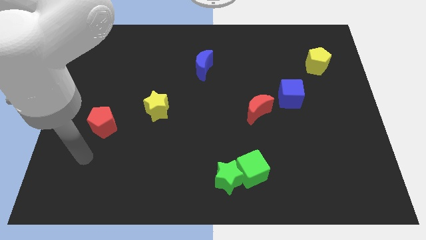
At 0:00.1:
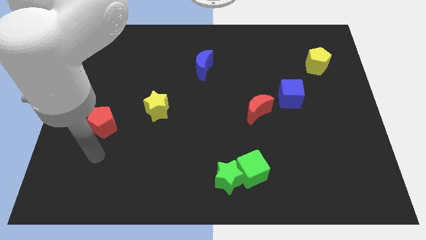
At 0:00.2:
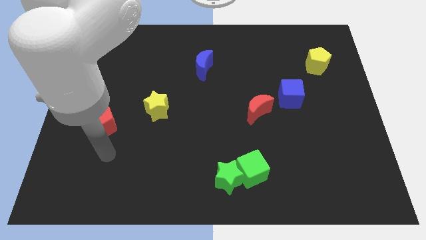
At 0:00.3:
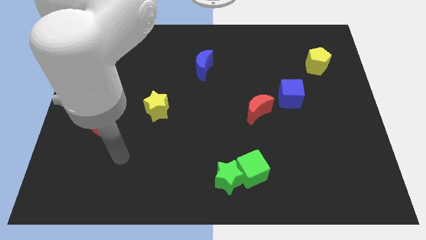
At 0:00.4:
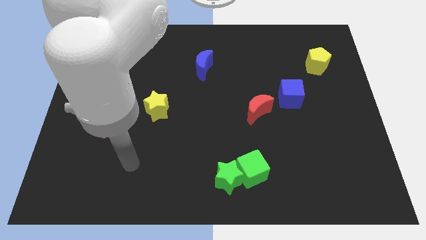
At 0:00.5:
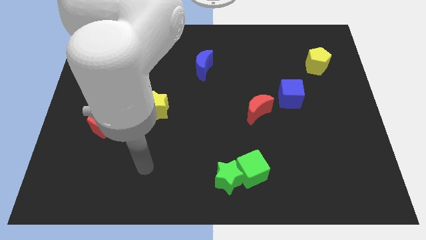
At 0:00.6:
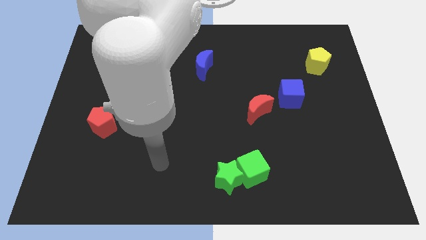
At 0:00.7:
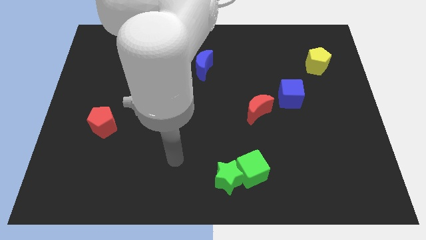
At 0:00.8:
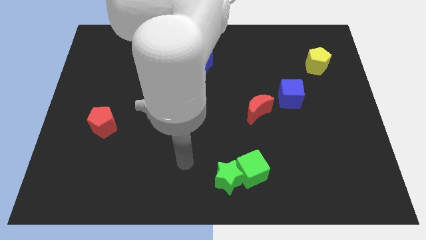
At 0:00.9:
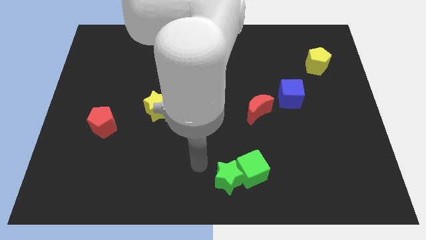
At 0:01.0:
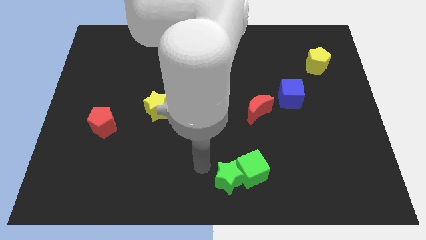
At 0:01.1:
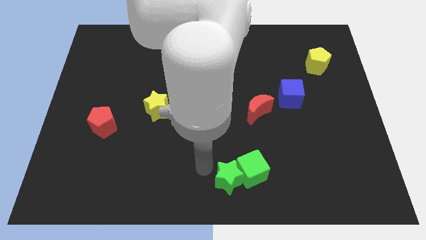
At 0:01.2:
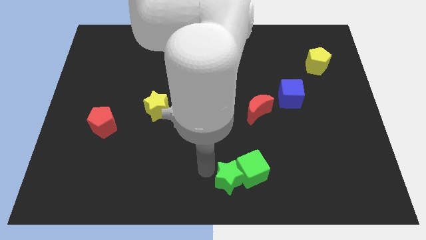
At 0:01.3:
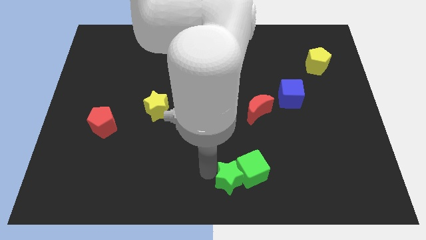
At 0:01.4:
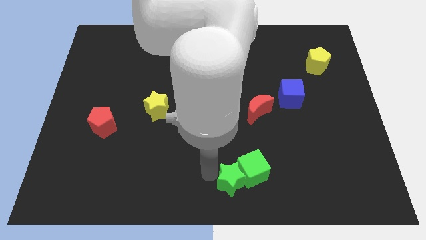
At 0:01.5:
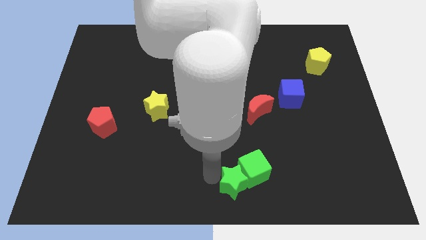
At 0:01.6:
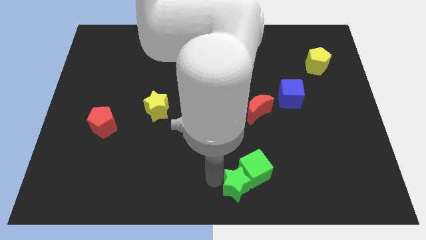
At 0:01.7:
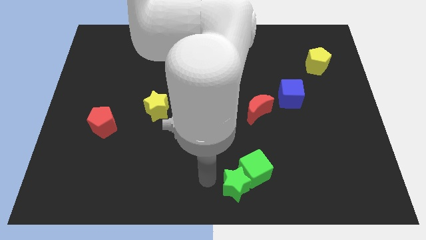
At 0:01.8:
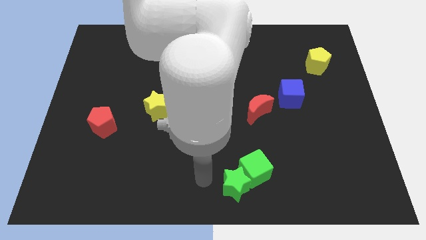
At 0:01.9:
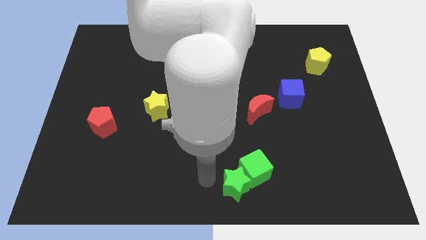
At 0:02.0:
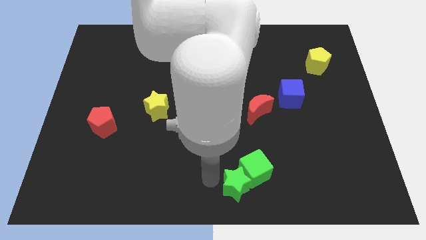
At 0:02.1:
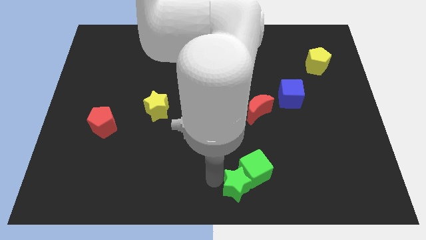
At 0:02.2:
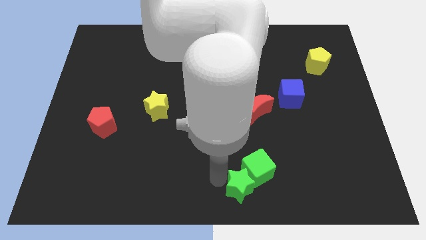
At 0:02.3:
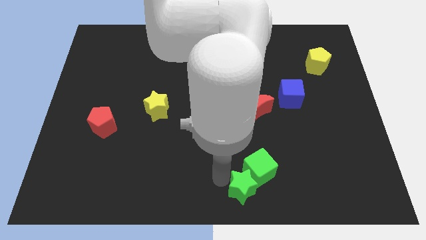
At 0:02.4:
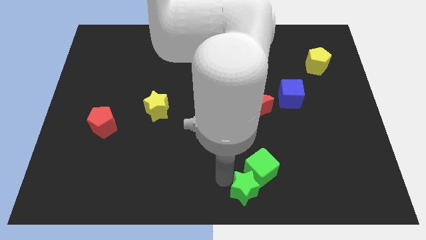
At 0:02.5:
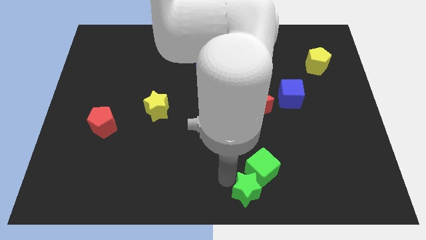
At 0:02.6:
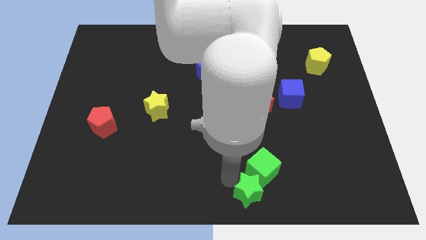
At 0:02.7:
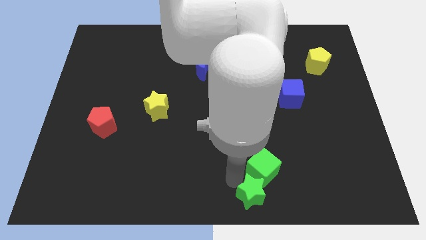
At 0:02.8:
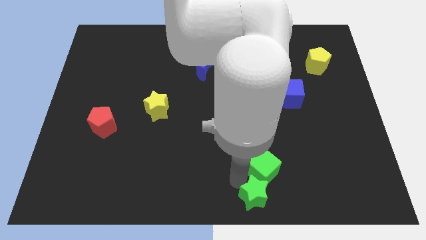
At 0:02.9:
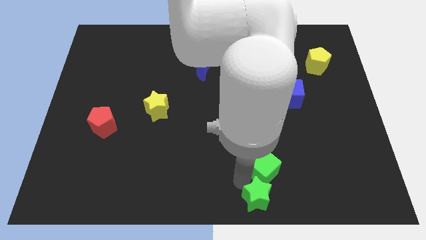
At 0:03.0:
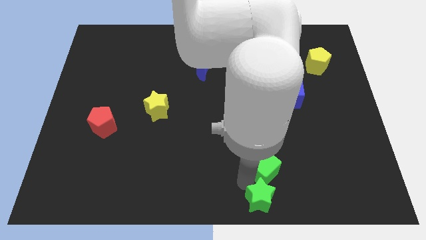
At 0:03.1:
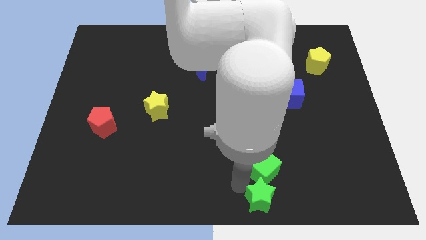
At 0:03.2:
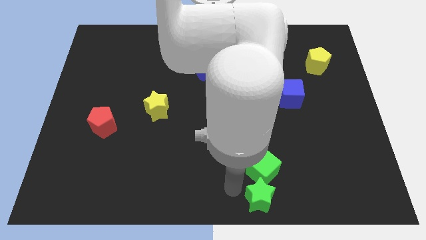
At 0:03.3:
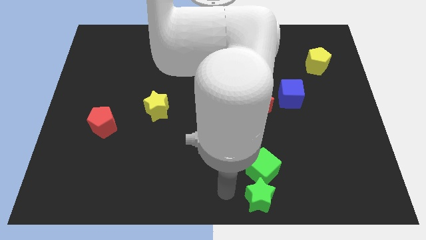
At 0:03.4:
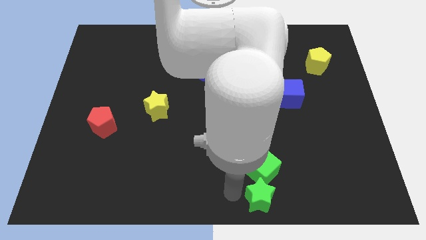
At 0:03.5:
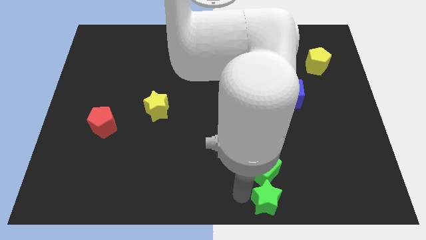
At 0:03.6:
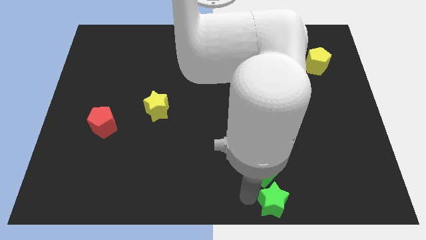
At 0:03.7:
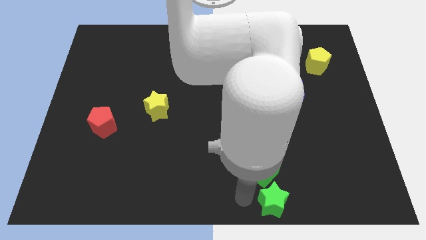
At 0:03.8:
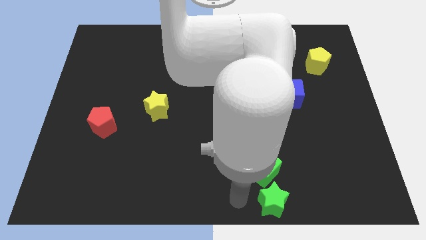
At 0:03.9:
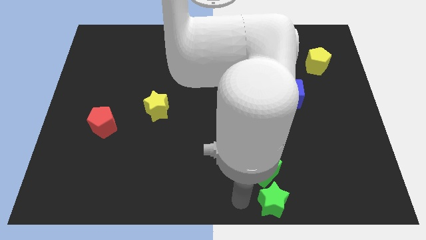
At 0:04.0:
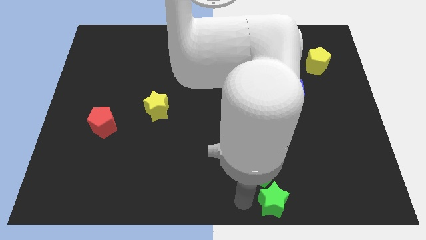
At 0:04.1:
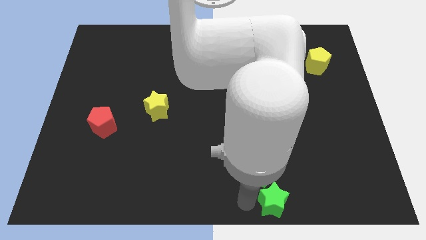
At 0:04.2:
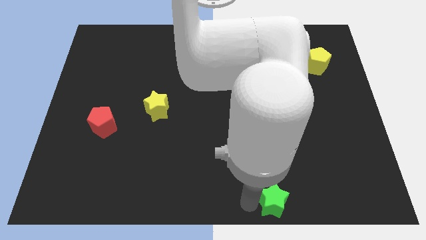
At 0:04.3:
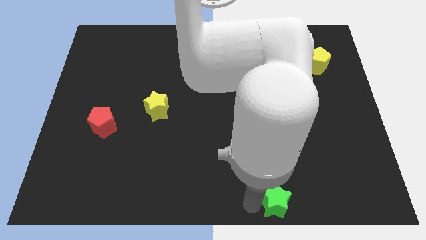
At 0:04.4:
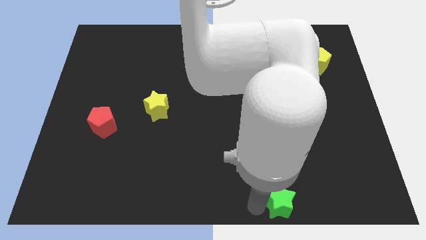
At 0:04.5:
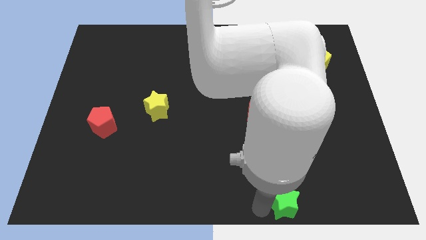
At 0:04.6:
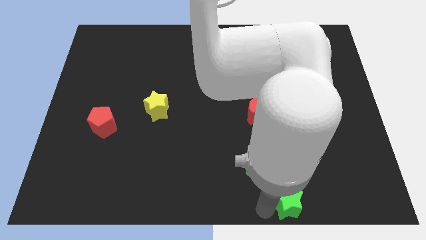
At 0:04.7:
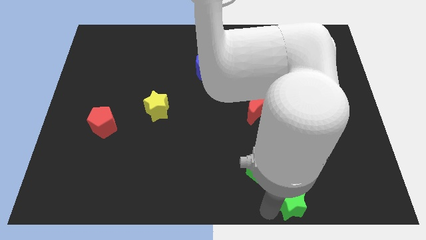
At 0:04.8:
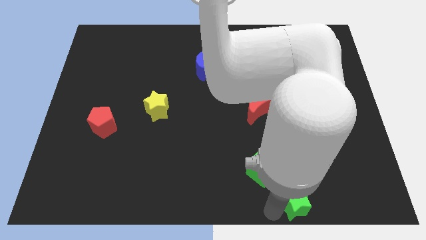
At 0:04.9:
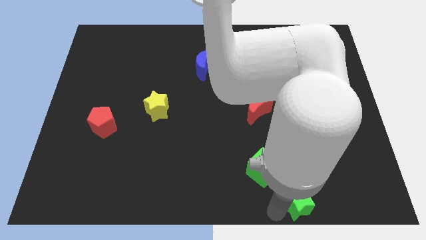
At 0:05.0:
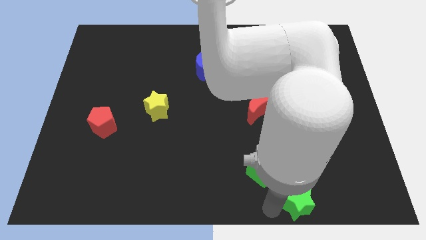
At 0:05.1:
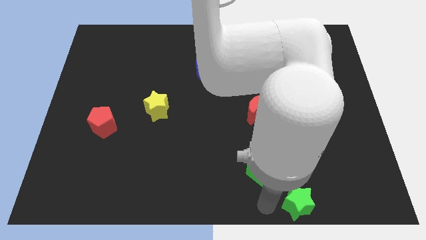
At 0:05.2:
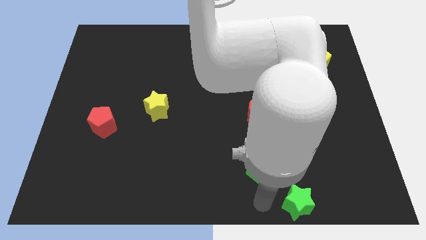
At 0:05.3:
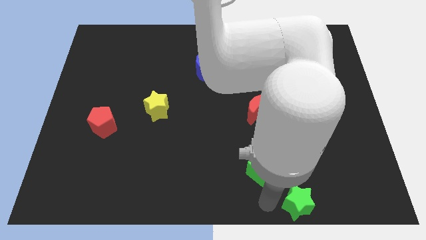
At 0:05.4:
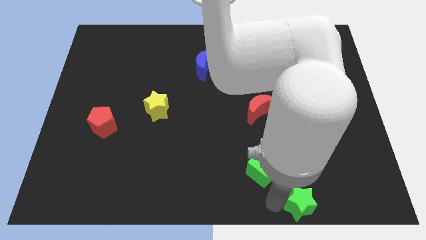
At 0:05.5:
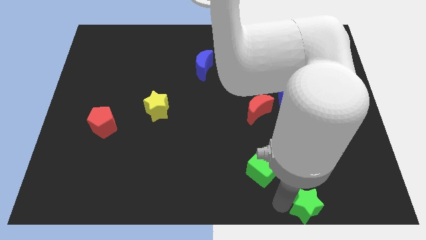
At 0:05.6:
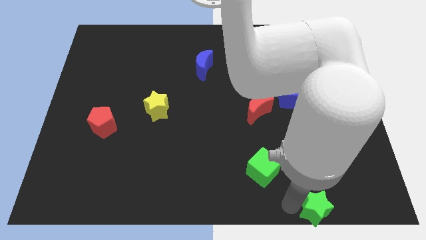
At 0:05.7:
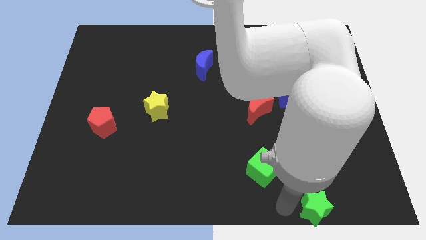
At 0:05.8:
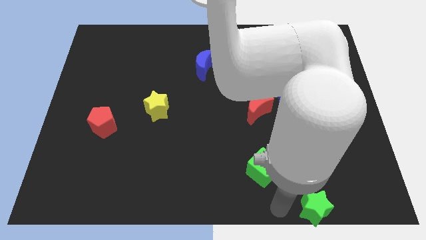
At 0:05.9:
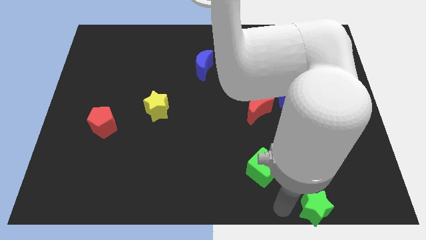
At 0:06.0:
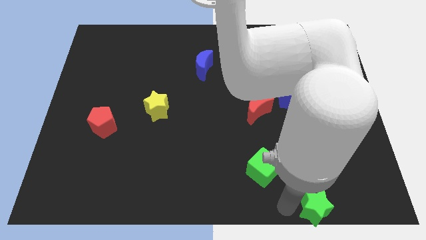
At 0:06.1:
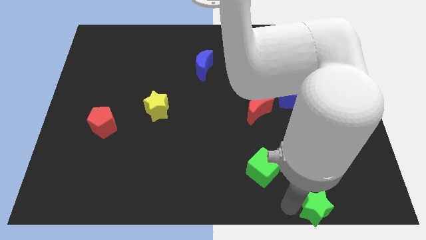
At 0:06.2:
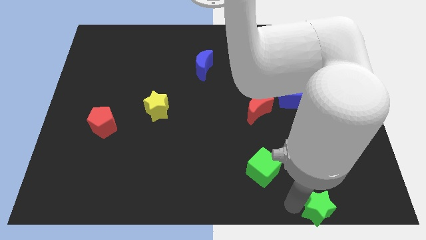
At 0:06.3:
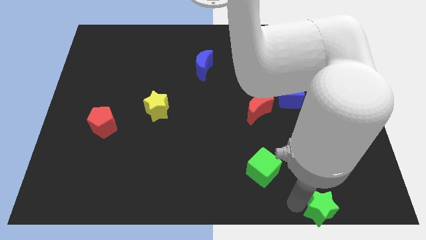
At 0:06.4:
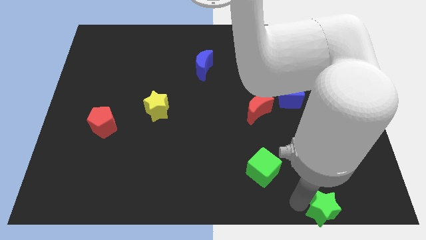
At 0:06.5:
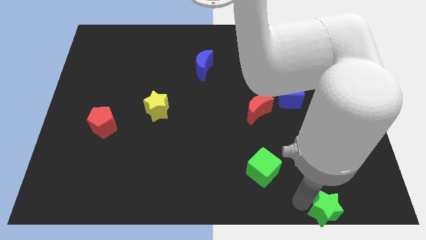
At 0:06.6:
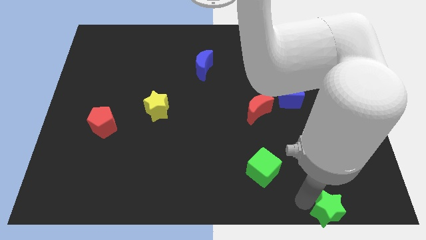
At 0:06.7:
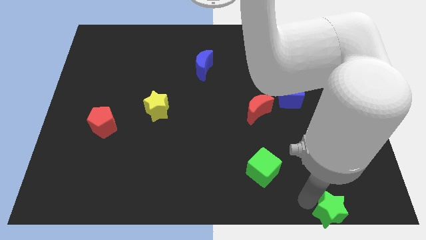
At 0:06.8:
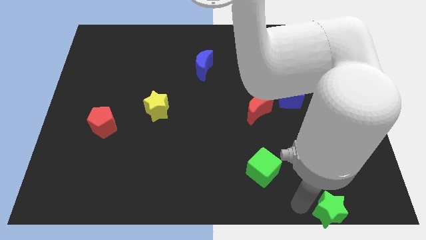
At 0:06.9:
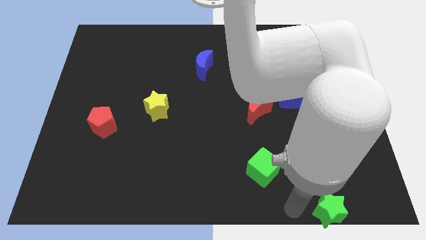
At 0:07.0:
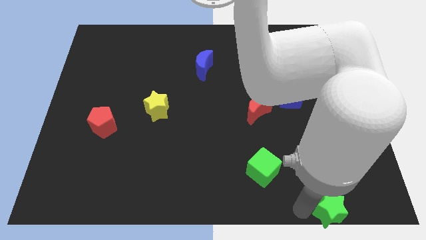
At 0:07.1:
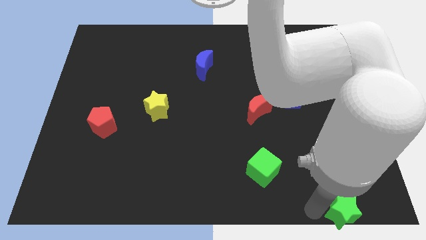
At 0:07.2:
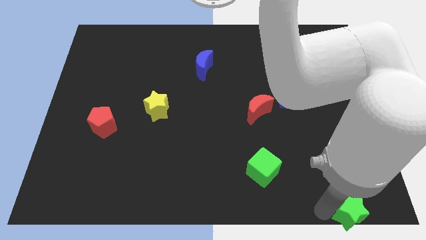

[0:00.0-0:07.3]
move the green star to the lower right corner
